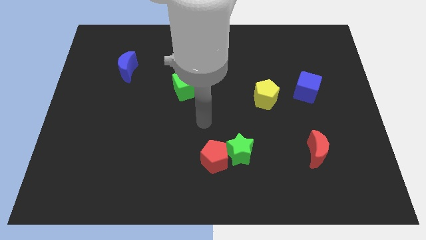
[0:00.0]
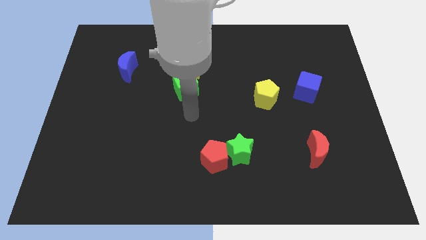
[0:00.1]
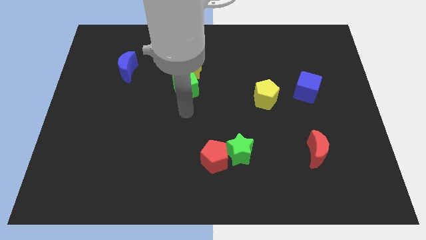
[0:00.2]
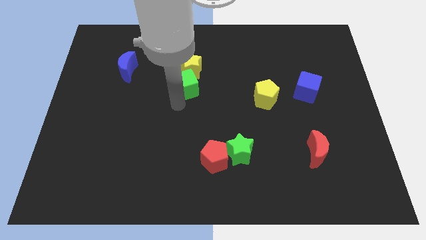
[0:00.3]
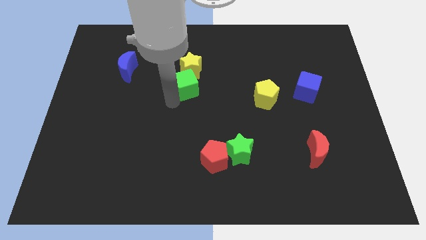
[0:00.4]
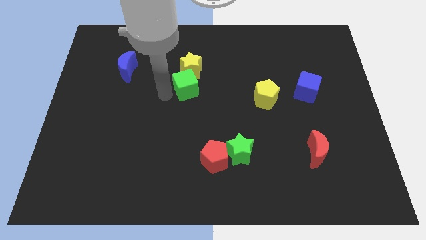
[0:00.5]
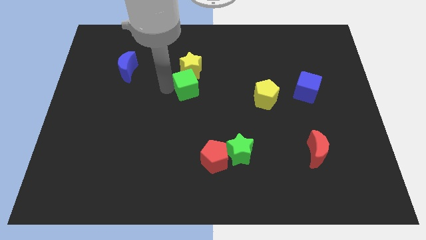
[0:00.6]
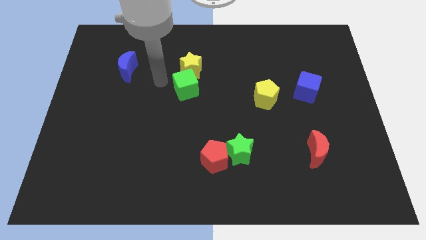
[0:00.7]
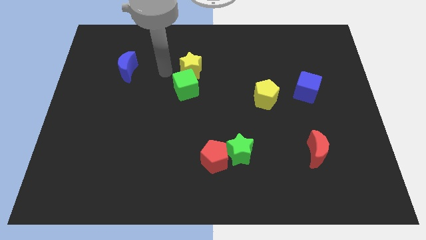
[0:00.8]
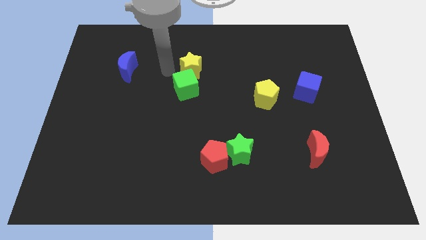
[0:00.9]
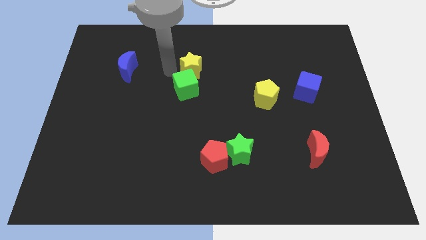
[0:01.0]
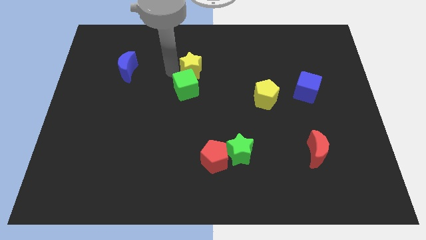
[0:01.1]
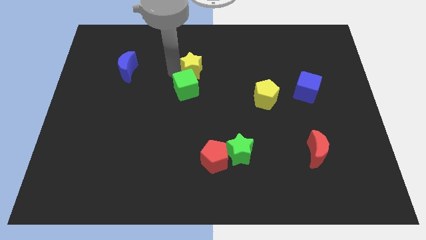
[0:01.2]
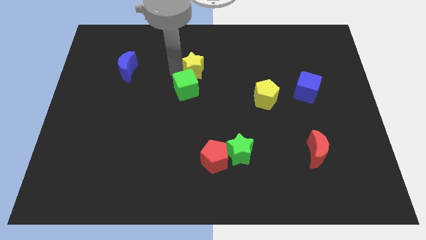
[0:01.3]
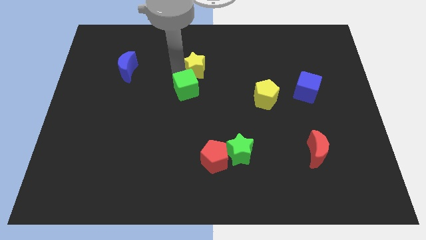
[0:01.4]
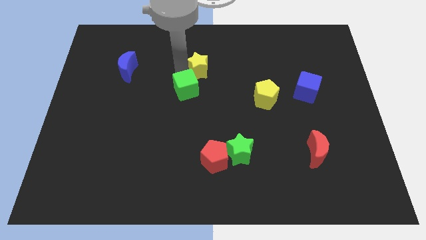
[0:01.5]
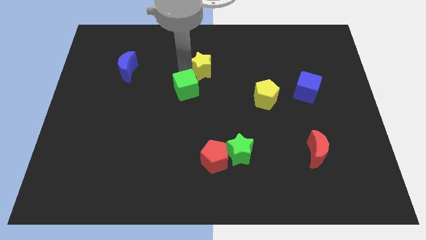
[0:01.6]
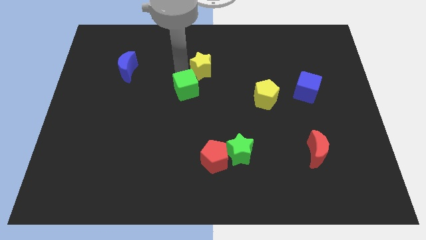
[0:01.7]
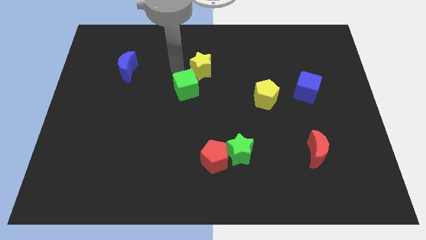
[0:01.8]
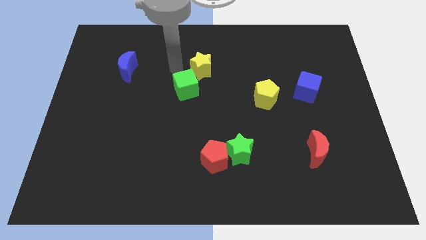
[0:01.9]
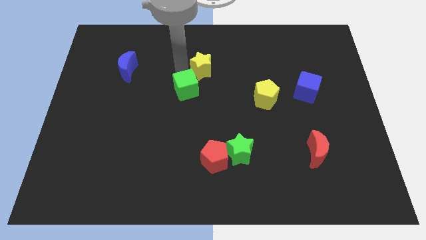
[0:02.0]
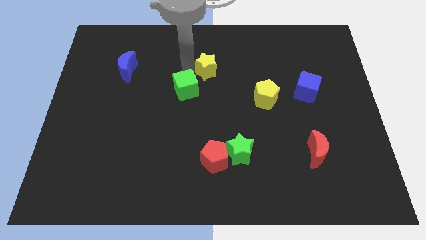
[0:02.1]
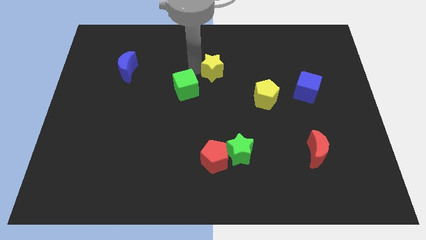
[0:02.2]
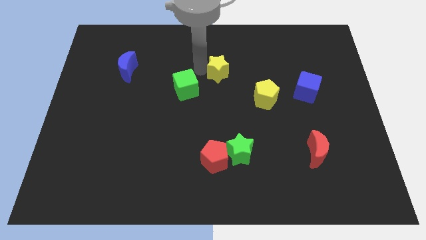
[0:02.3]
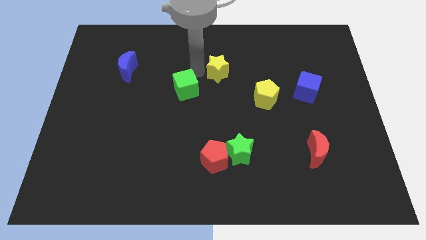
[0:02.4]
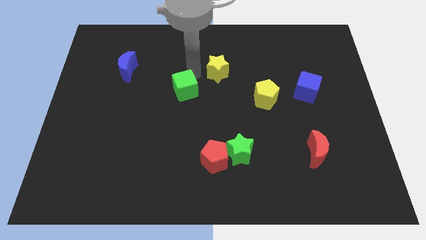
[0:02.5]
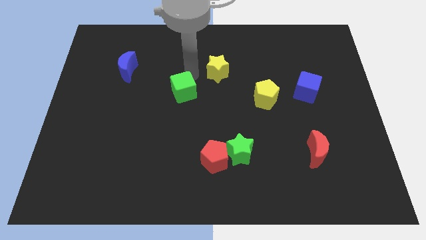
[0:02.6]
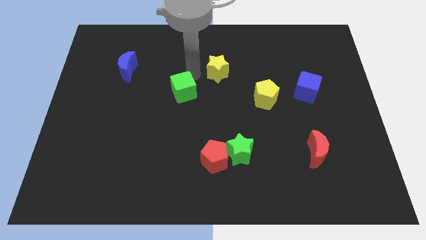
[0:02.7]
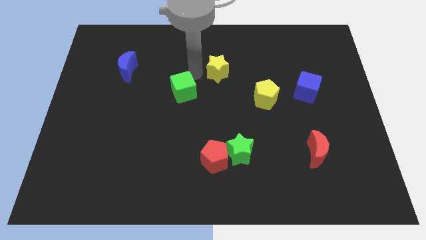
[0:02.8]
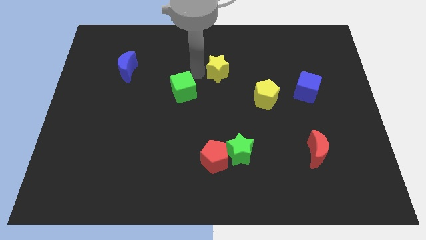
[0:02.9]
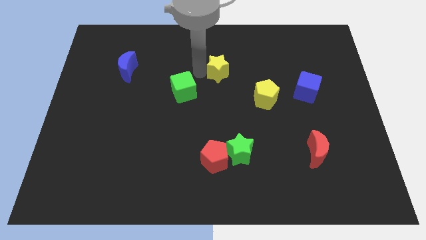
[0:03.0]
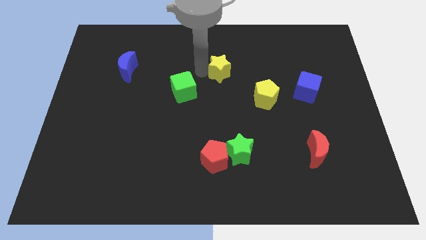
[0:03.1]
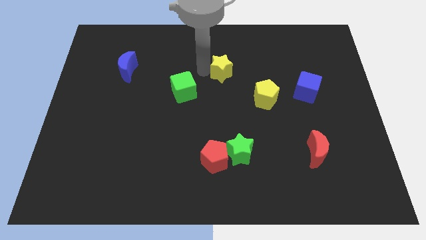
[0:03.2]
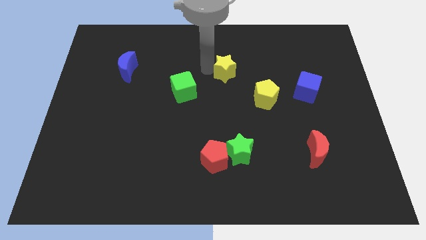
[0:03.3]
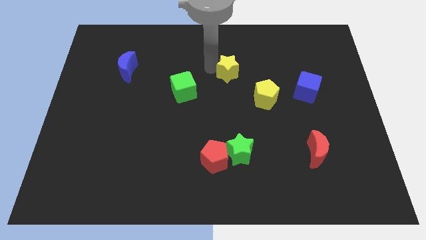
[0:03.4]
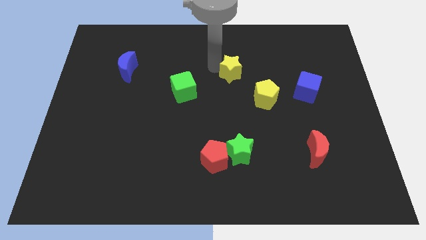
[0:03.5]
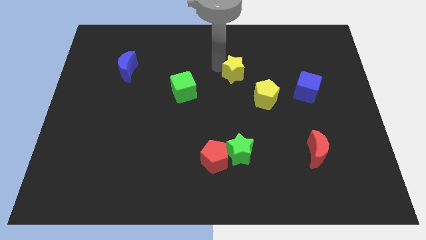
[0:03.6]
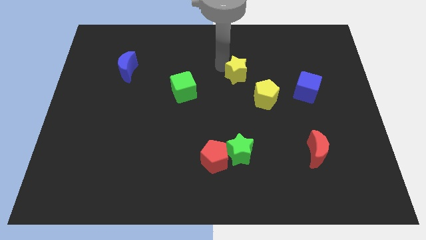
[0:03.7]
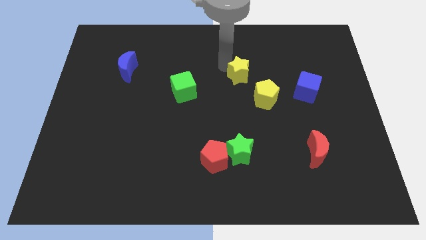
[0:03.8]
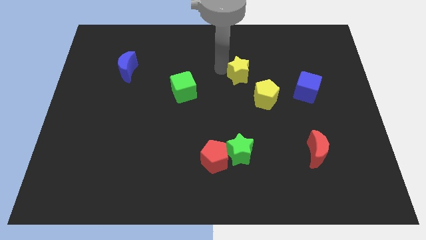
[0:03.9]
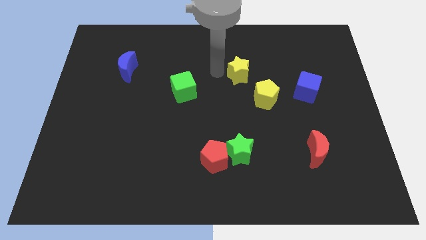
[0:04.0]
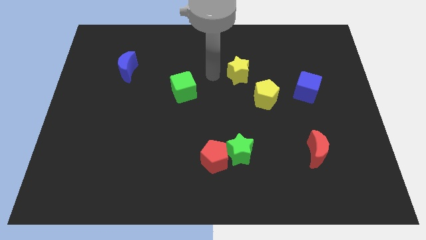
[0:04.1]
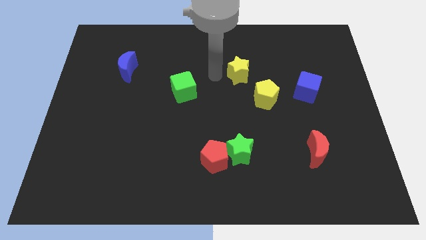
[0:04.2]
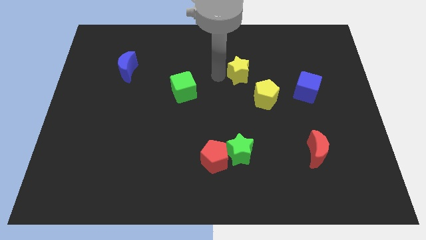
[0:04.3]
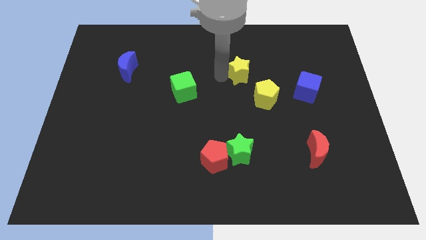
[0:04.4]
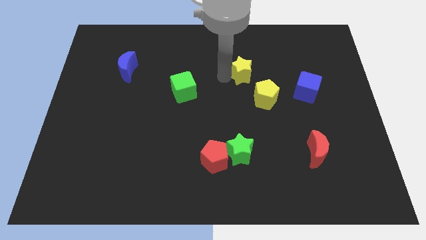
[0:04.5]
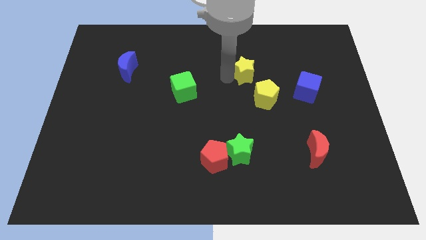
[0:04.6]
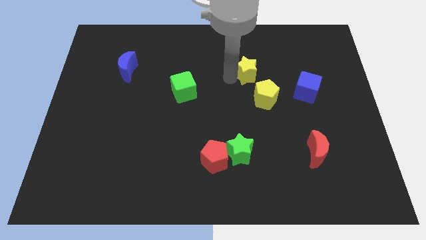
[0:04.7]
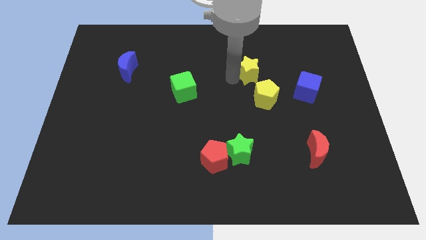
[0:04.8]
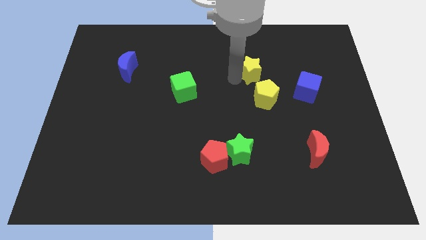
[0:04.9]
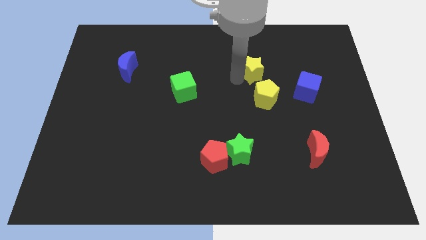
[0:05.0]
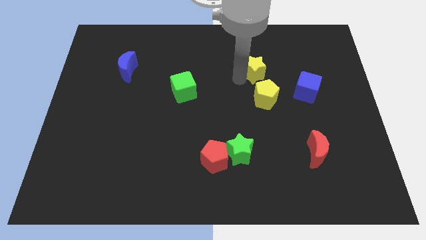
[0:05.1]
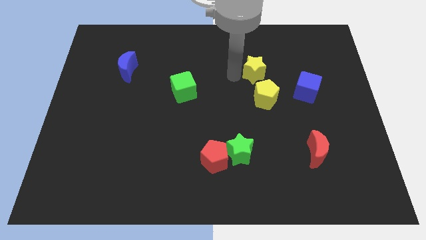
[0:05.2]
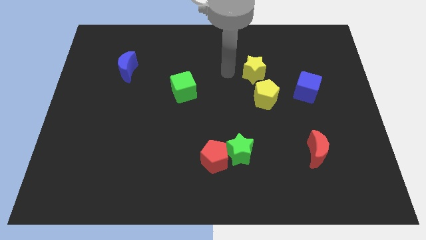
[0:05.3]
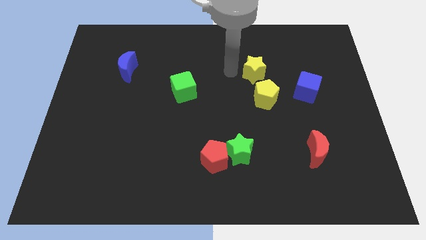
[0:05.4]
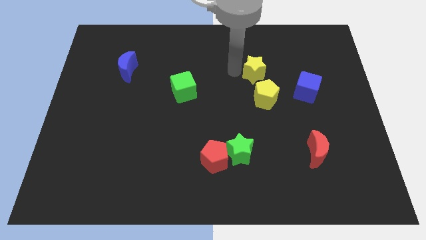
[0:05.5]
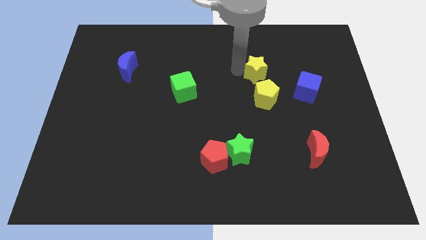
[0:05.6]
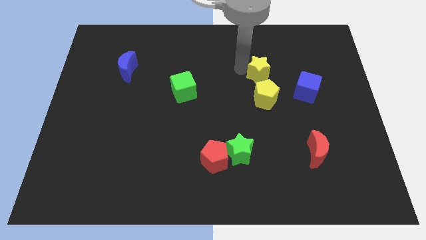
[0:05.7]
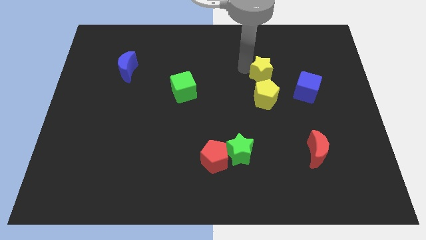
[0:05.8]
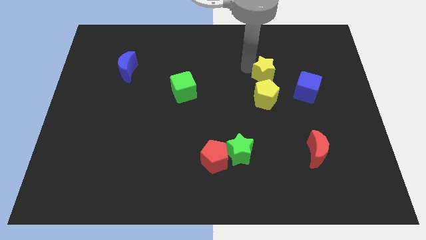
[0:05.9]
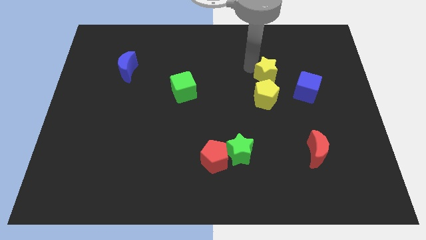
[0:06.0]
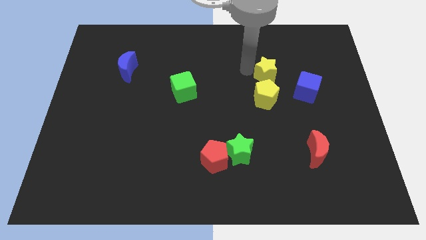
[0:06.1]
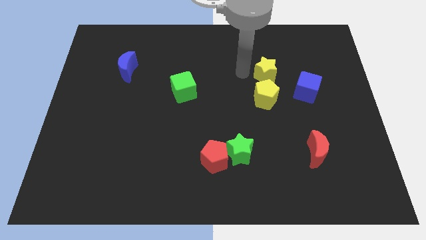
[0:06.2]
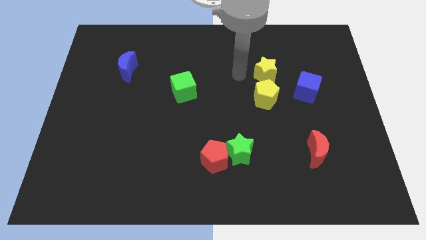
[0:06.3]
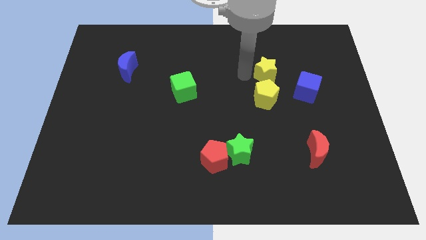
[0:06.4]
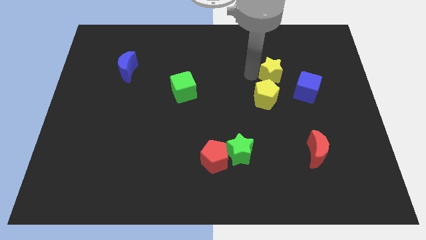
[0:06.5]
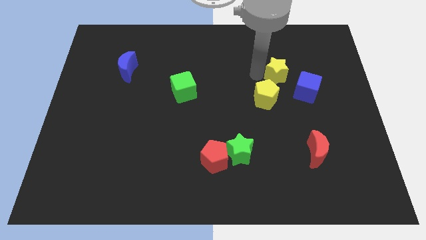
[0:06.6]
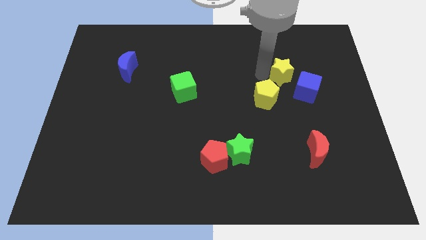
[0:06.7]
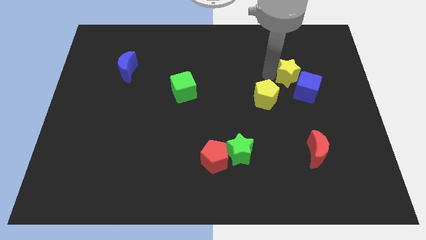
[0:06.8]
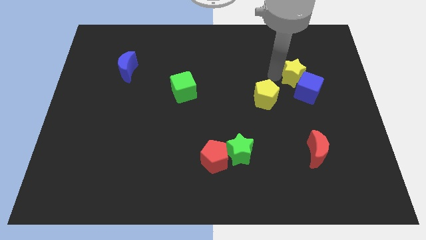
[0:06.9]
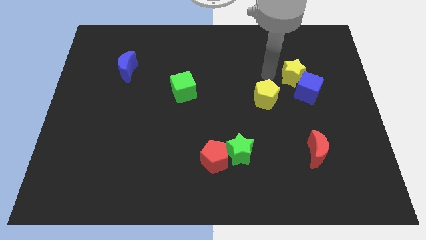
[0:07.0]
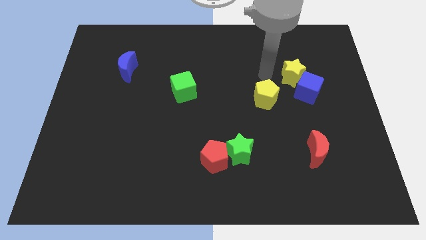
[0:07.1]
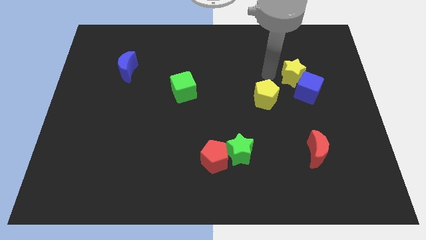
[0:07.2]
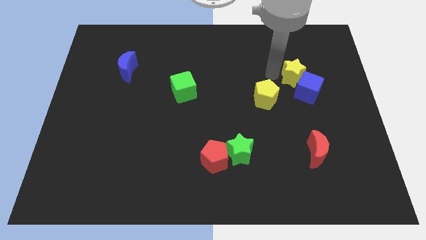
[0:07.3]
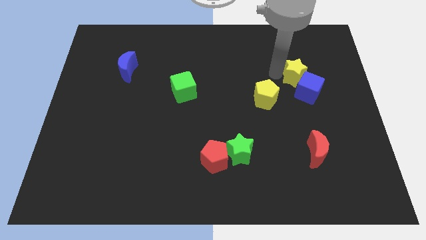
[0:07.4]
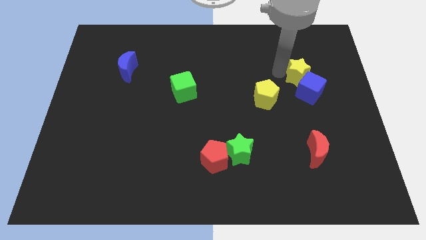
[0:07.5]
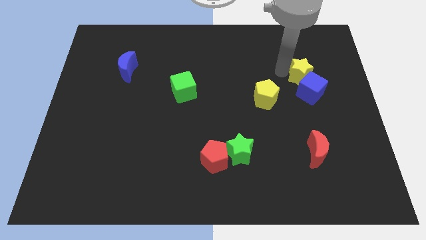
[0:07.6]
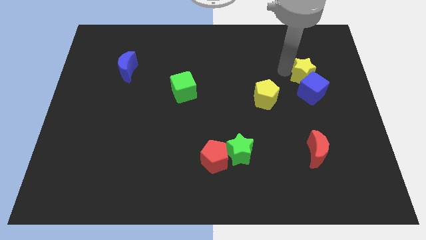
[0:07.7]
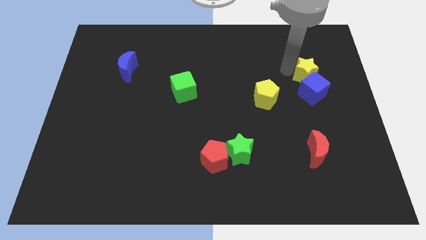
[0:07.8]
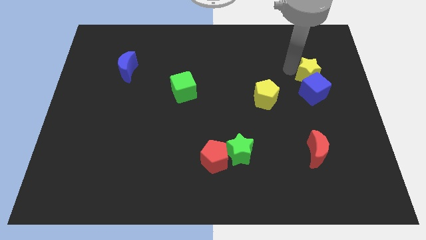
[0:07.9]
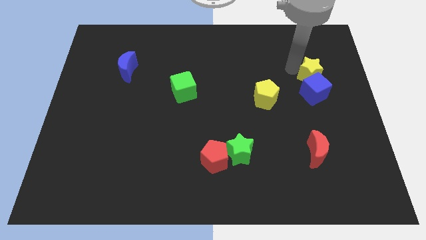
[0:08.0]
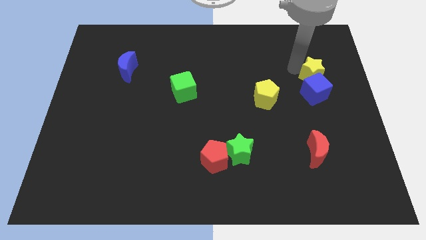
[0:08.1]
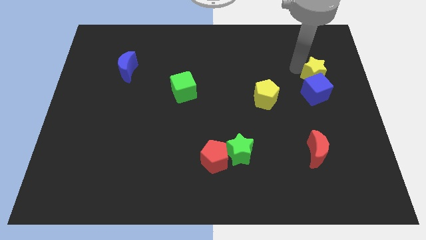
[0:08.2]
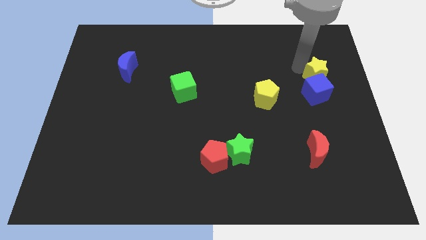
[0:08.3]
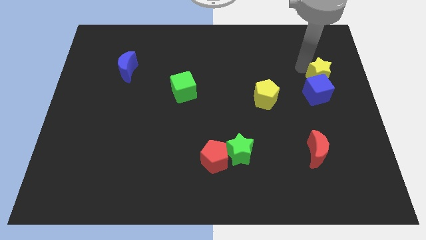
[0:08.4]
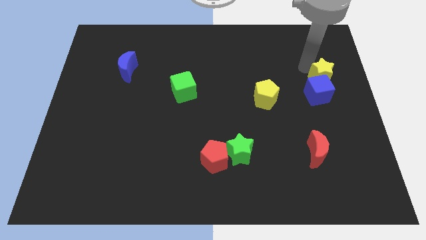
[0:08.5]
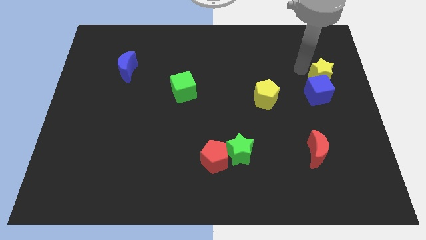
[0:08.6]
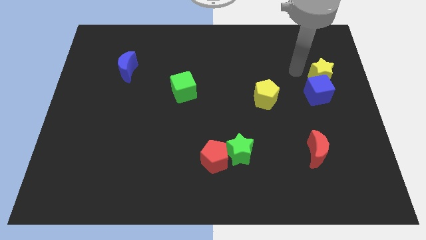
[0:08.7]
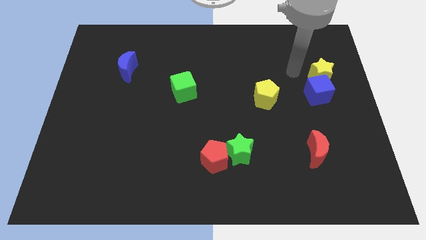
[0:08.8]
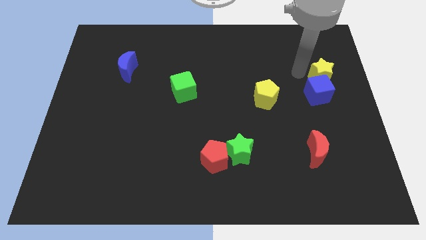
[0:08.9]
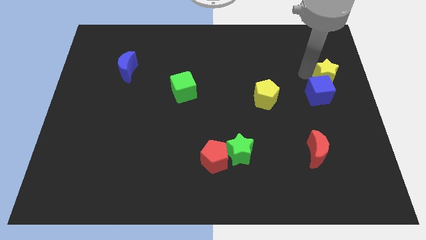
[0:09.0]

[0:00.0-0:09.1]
slide the yellow star to the right side
